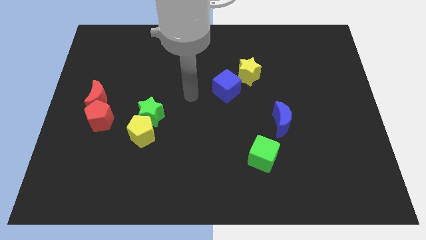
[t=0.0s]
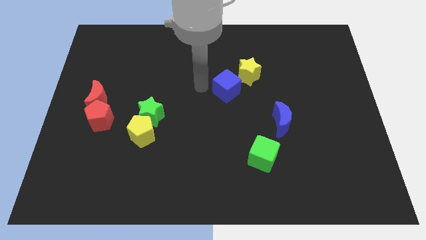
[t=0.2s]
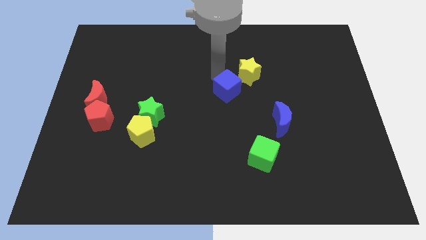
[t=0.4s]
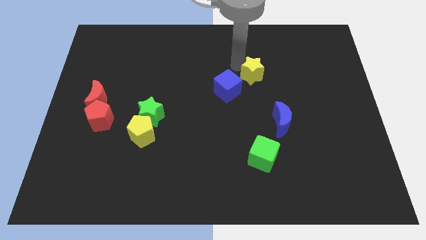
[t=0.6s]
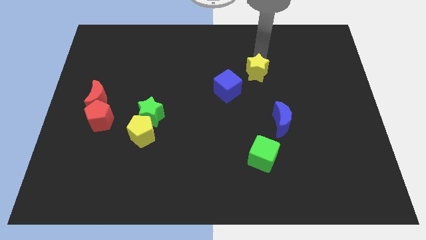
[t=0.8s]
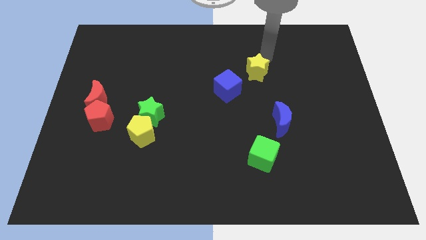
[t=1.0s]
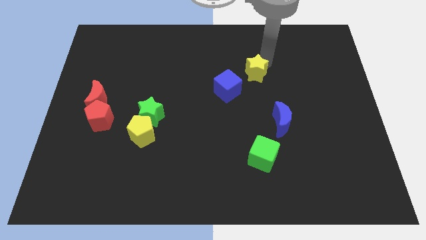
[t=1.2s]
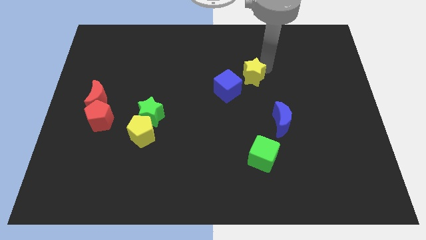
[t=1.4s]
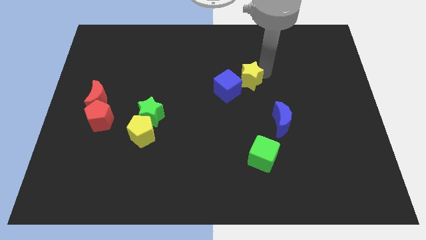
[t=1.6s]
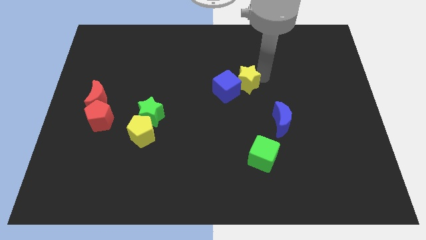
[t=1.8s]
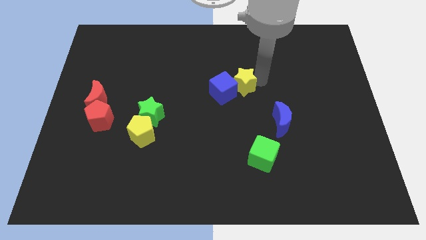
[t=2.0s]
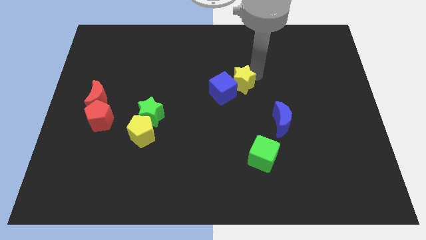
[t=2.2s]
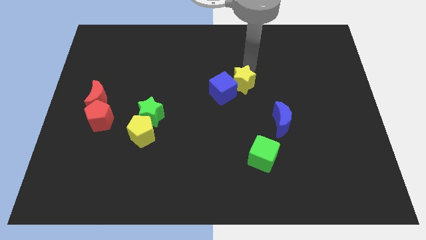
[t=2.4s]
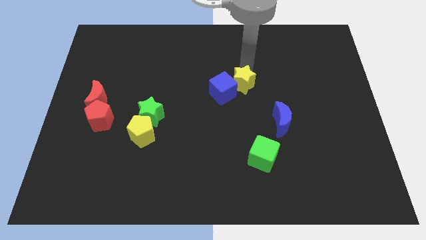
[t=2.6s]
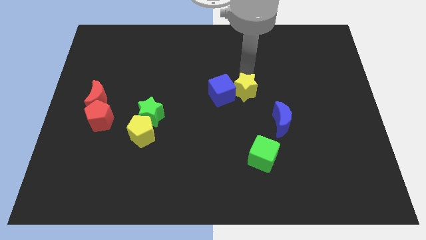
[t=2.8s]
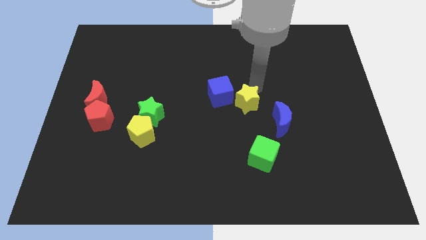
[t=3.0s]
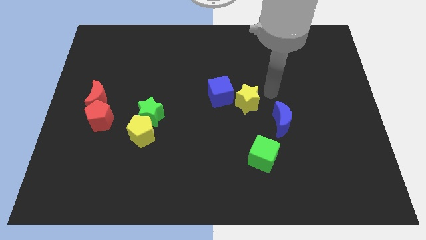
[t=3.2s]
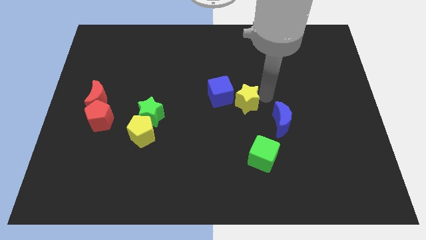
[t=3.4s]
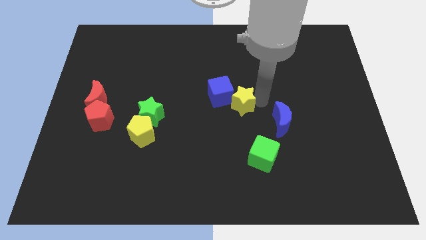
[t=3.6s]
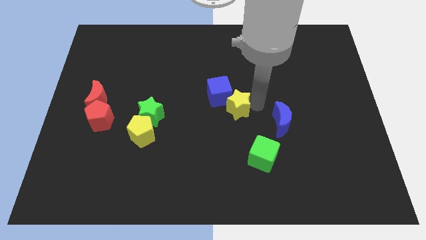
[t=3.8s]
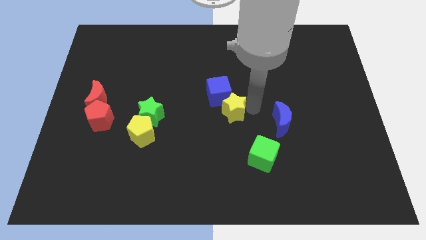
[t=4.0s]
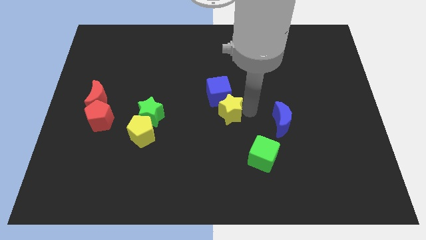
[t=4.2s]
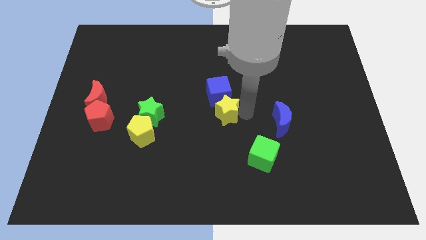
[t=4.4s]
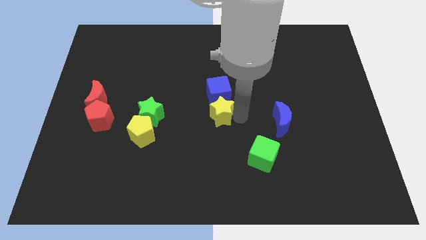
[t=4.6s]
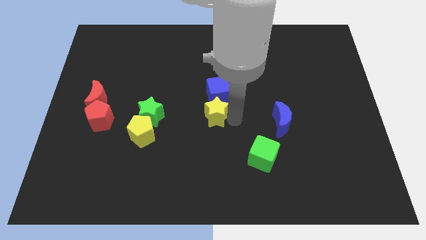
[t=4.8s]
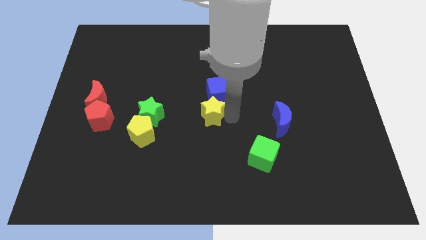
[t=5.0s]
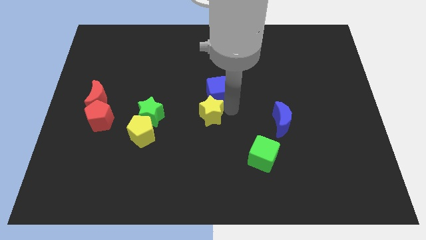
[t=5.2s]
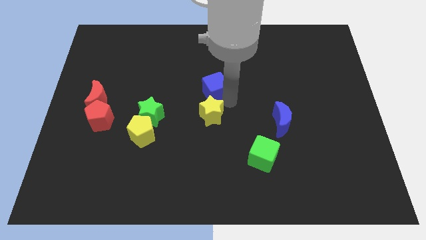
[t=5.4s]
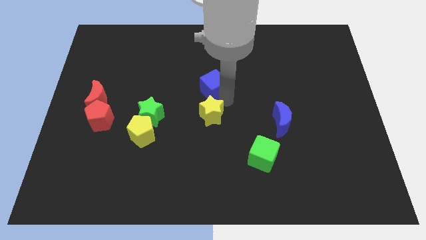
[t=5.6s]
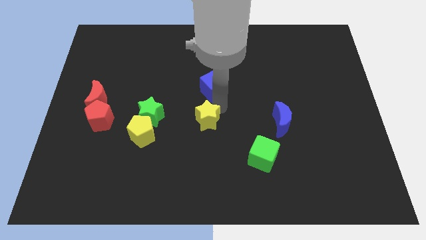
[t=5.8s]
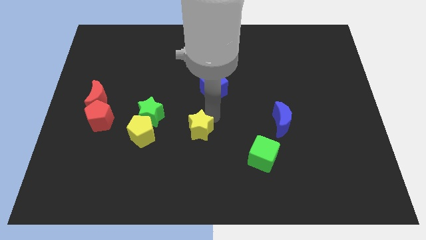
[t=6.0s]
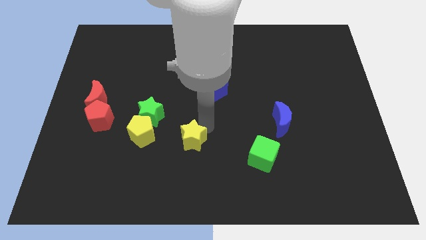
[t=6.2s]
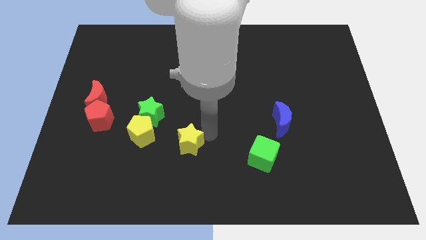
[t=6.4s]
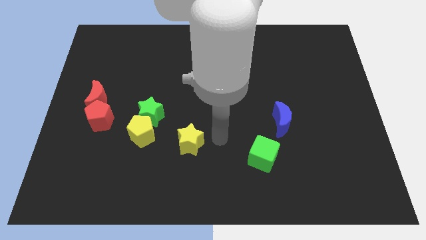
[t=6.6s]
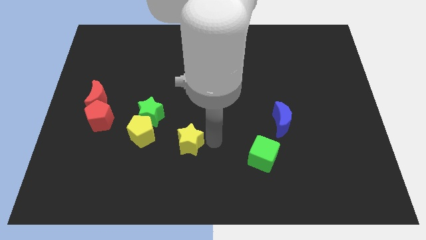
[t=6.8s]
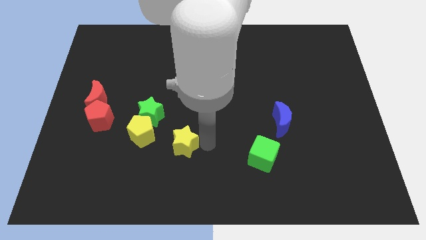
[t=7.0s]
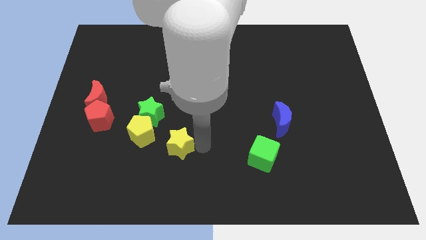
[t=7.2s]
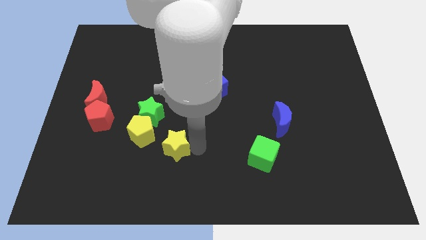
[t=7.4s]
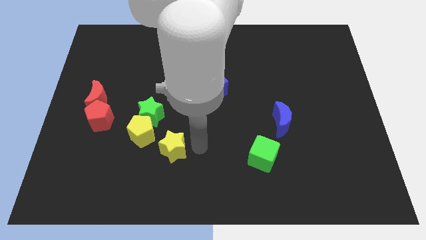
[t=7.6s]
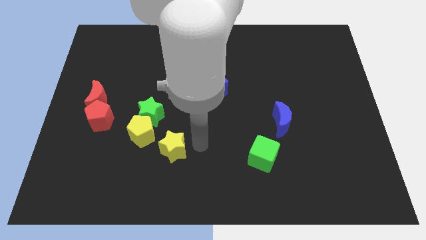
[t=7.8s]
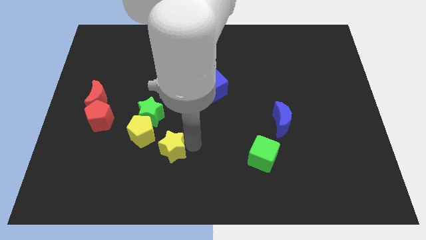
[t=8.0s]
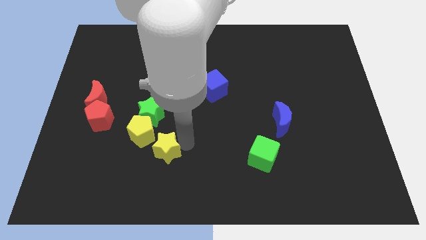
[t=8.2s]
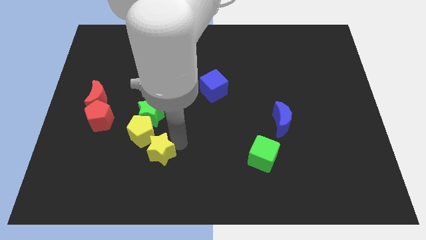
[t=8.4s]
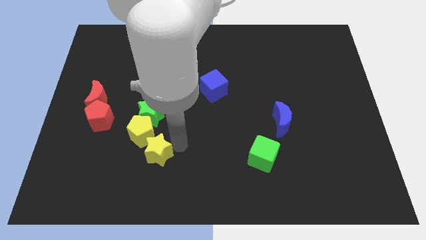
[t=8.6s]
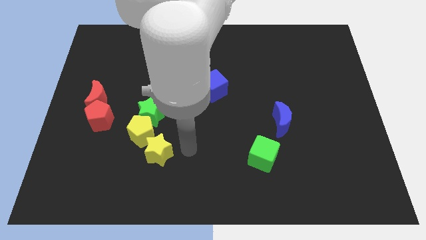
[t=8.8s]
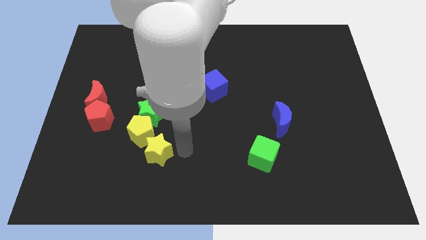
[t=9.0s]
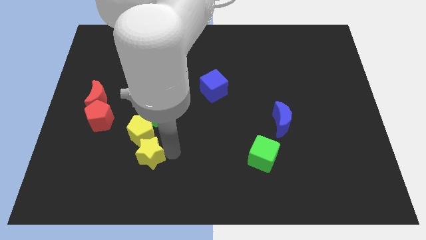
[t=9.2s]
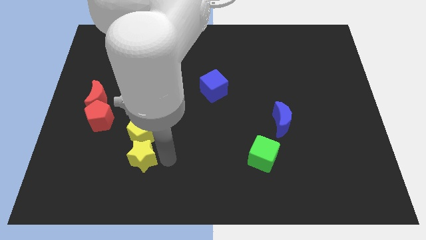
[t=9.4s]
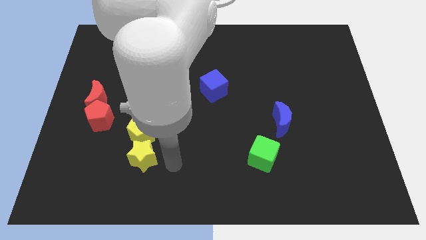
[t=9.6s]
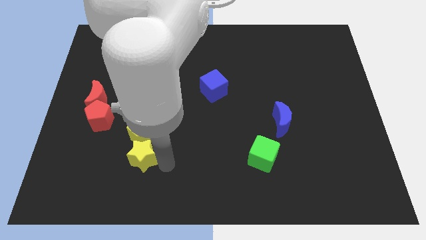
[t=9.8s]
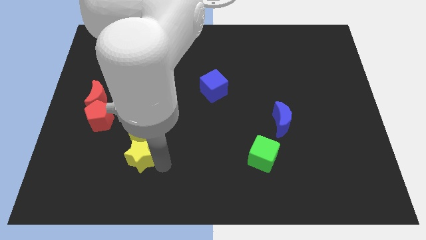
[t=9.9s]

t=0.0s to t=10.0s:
put the yellow star to the bottom left of the yellow pentagon

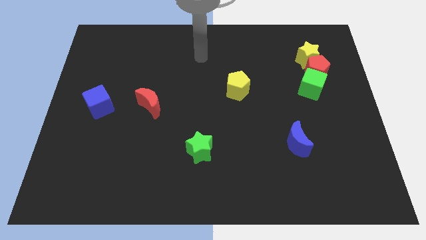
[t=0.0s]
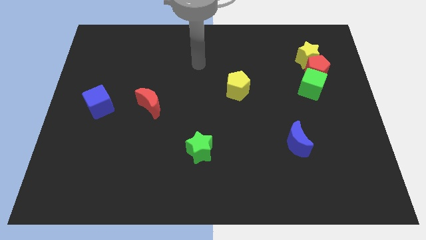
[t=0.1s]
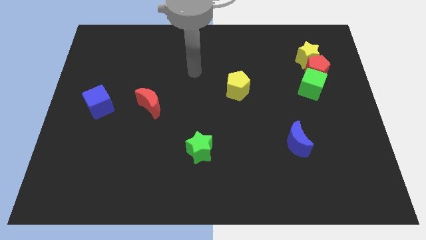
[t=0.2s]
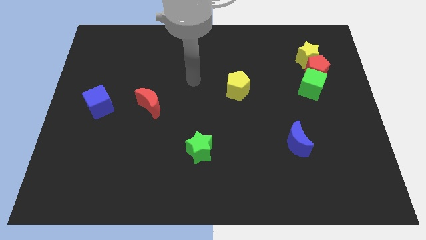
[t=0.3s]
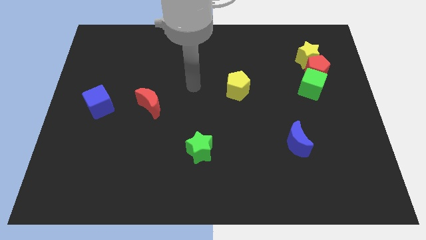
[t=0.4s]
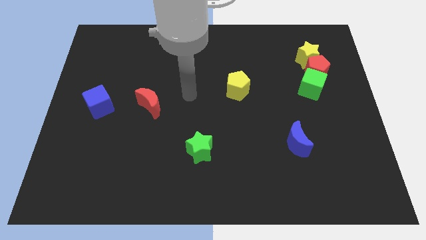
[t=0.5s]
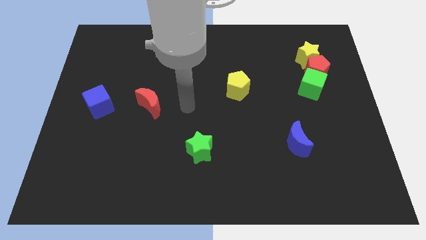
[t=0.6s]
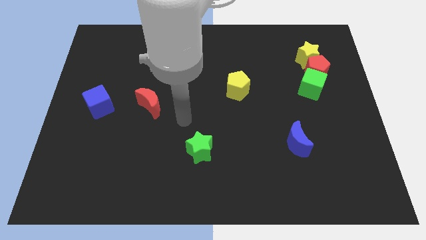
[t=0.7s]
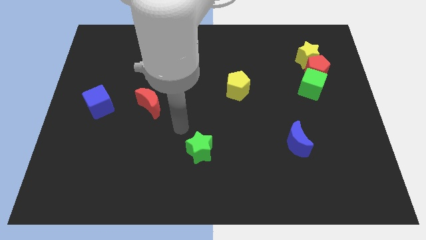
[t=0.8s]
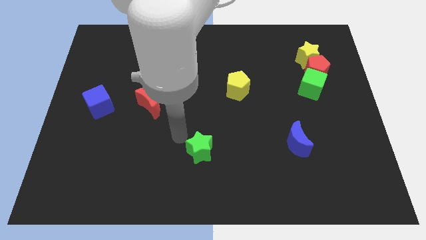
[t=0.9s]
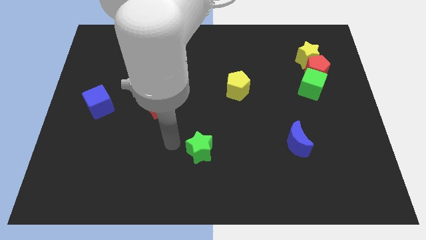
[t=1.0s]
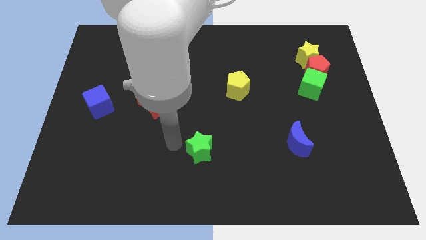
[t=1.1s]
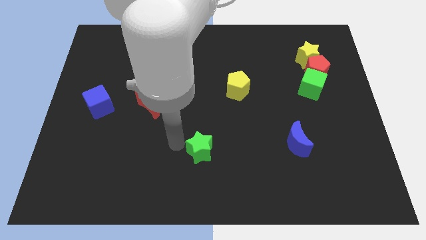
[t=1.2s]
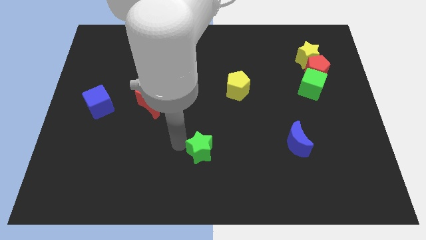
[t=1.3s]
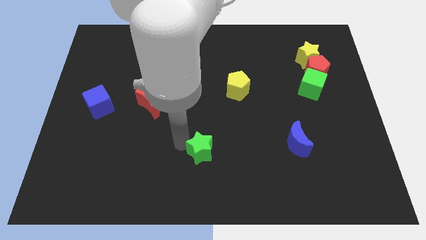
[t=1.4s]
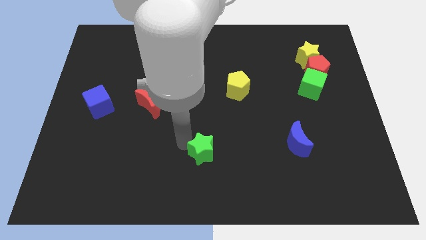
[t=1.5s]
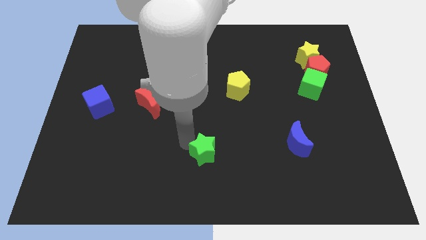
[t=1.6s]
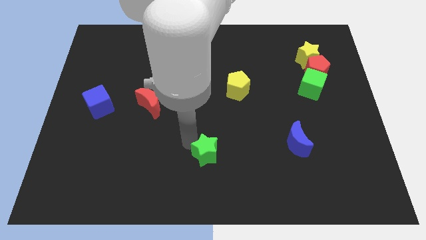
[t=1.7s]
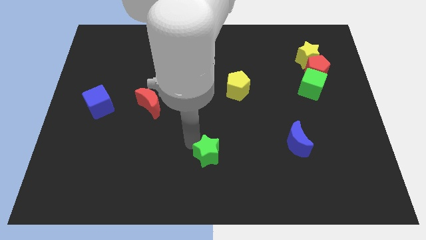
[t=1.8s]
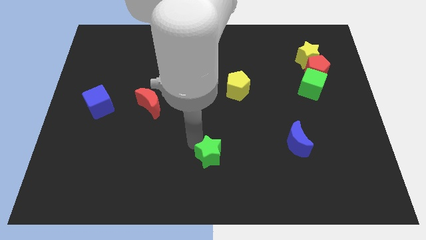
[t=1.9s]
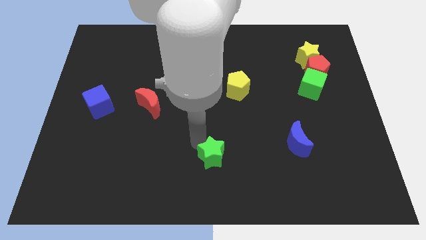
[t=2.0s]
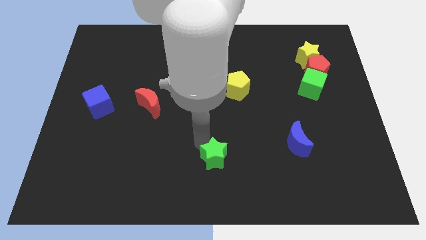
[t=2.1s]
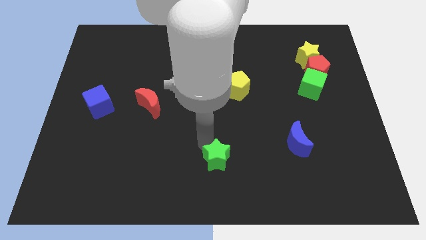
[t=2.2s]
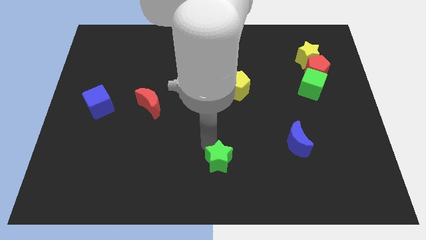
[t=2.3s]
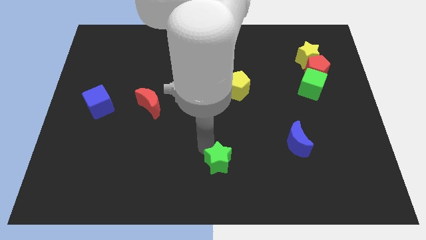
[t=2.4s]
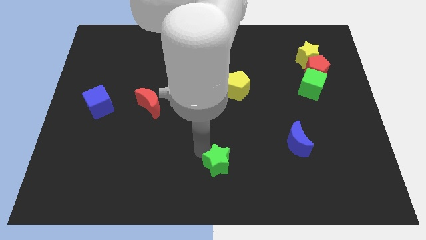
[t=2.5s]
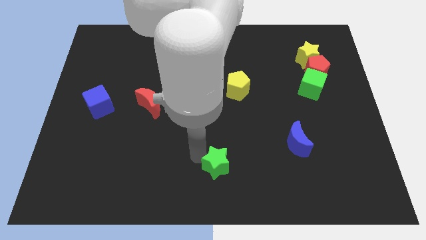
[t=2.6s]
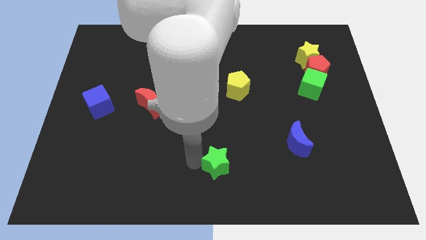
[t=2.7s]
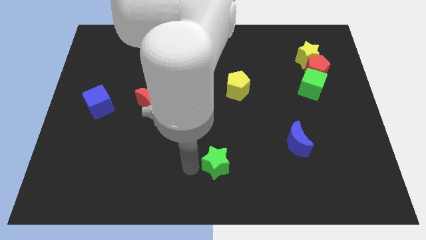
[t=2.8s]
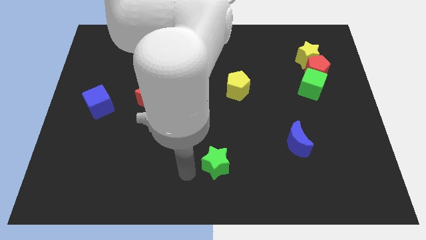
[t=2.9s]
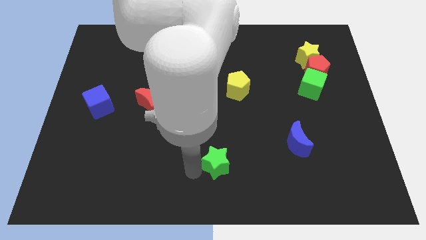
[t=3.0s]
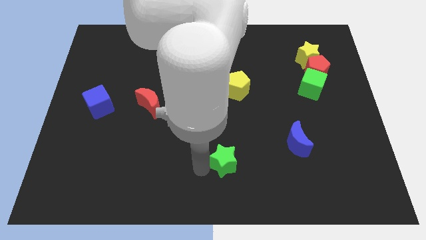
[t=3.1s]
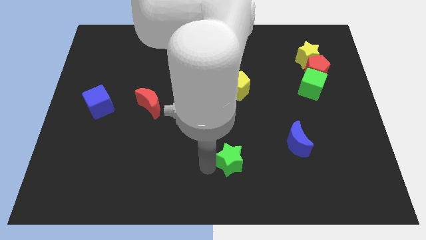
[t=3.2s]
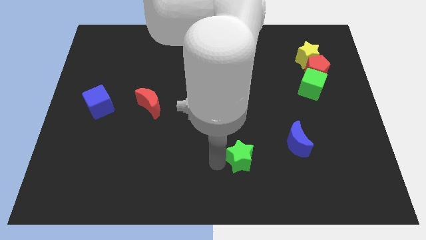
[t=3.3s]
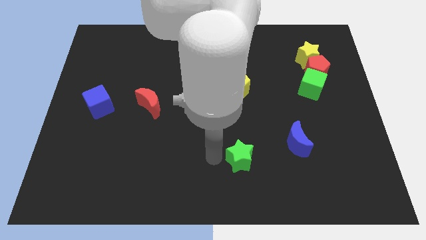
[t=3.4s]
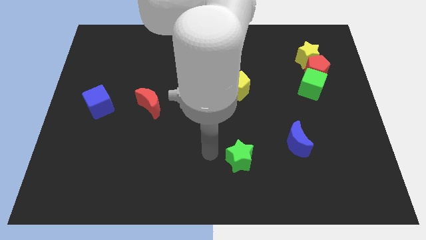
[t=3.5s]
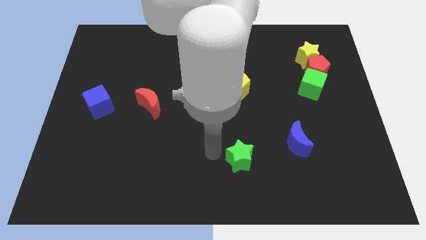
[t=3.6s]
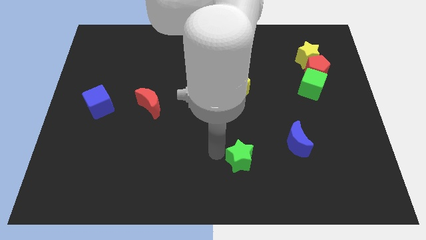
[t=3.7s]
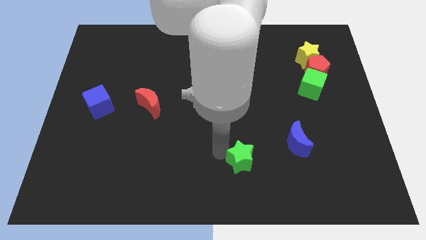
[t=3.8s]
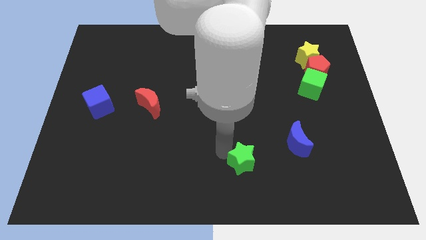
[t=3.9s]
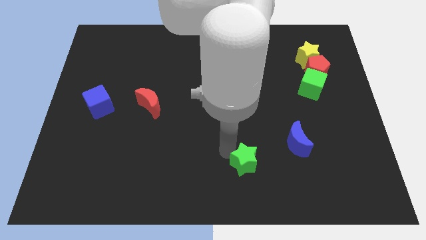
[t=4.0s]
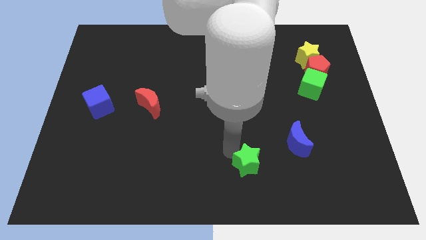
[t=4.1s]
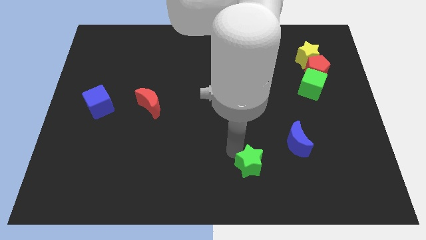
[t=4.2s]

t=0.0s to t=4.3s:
slide the green star diagonally down and to the left of the blue moon
